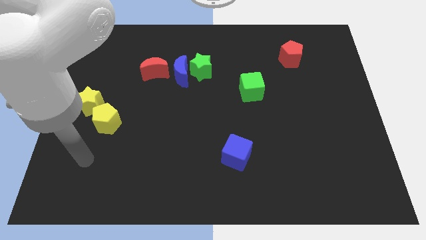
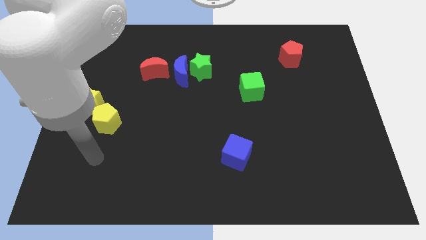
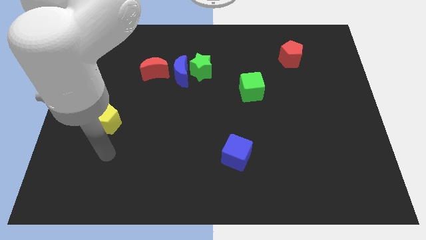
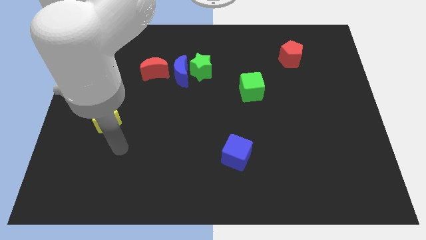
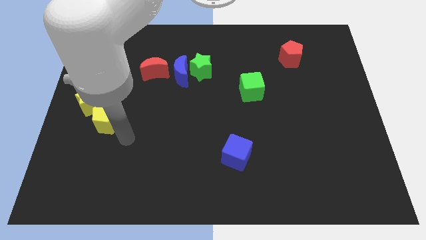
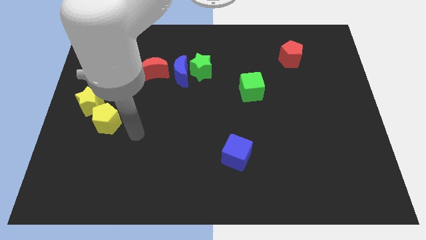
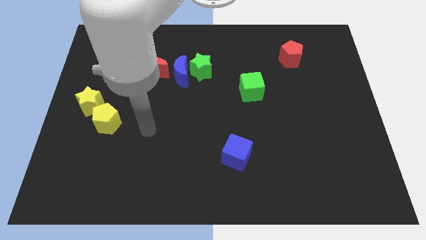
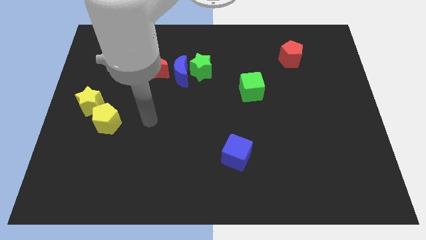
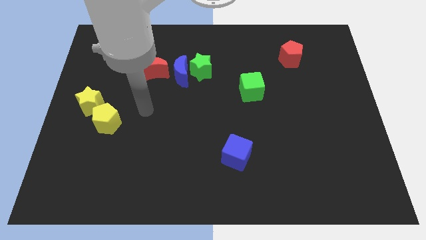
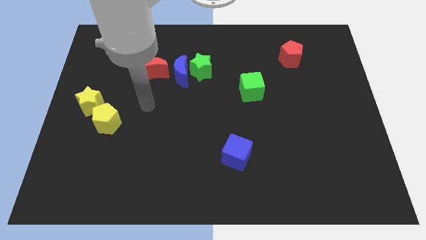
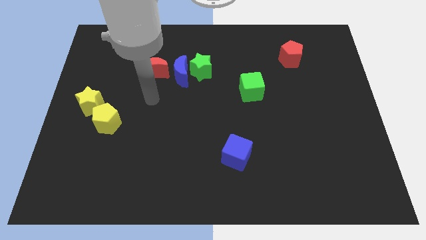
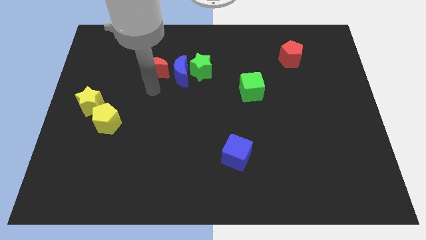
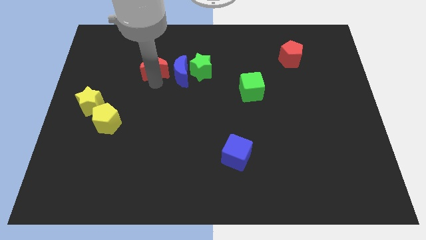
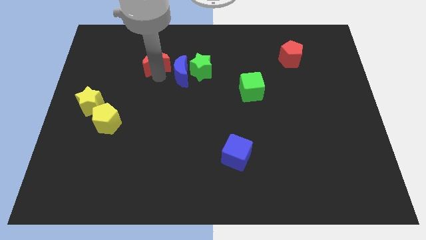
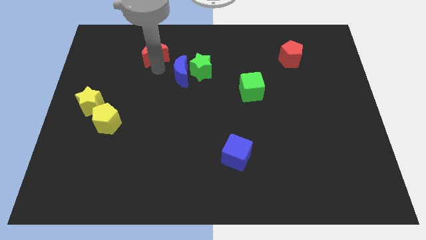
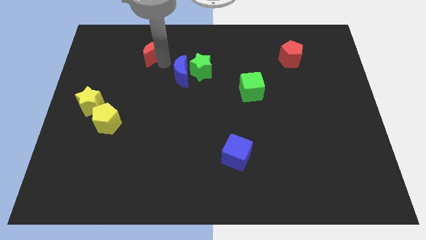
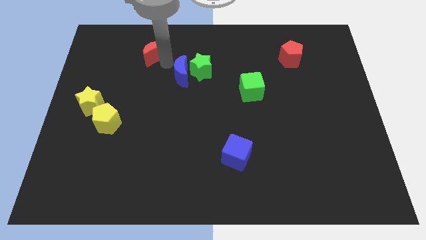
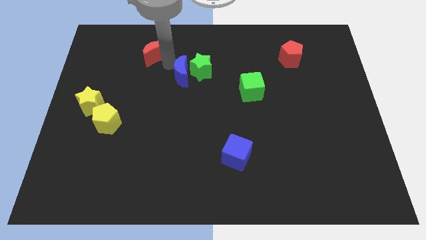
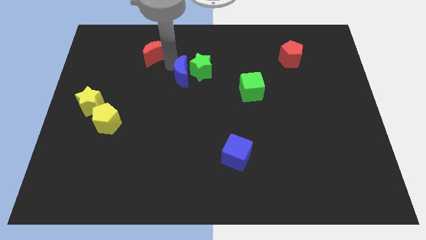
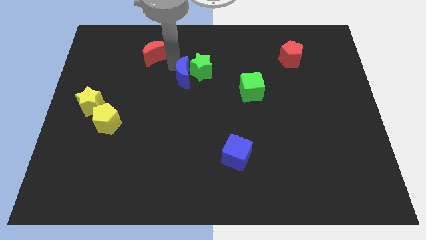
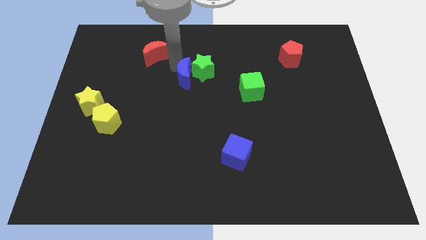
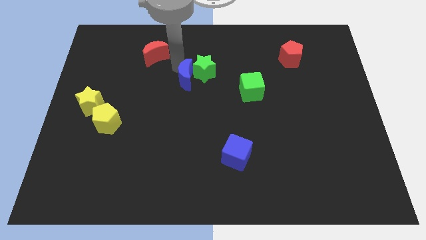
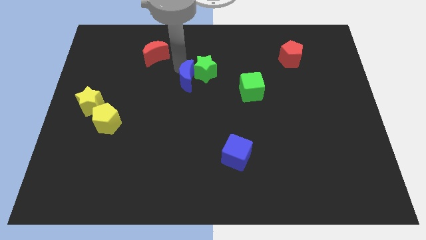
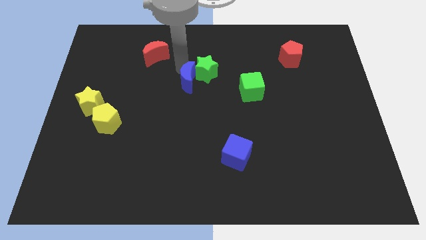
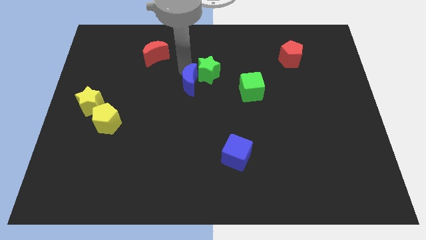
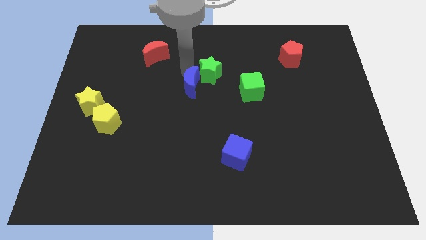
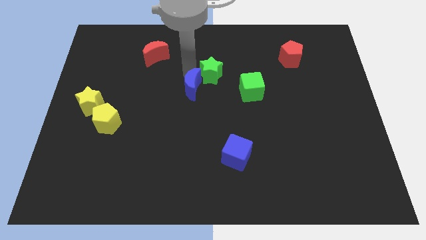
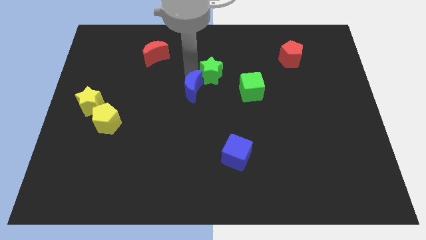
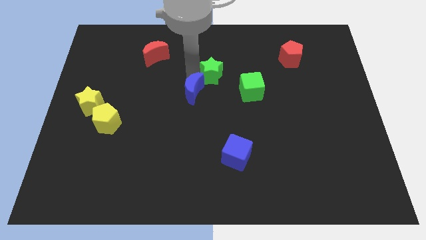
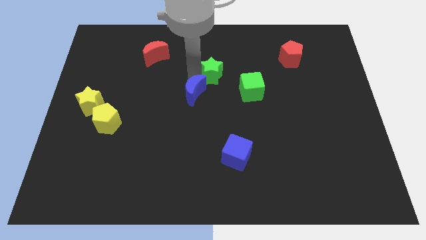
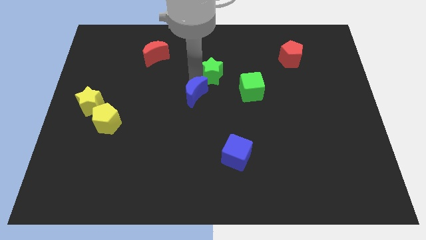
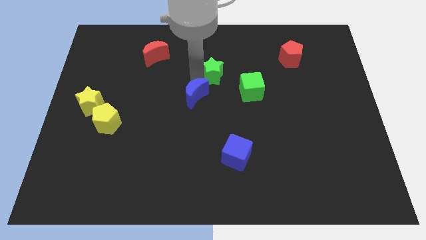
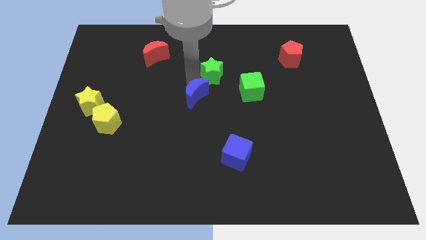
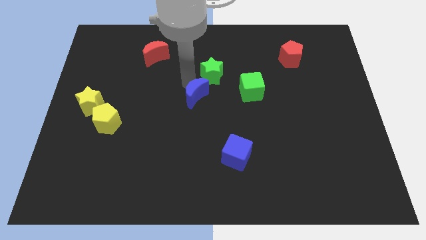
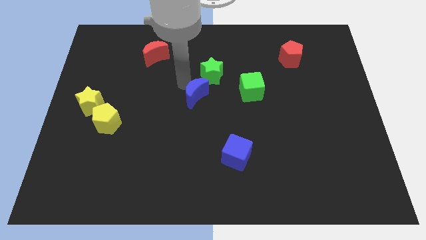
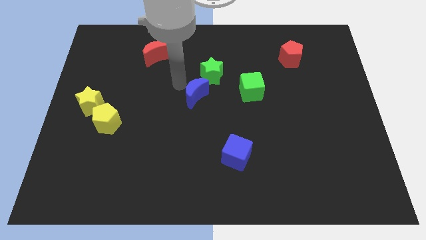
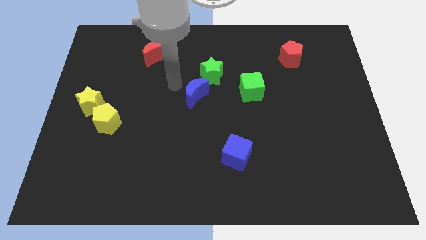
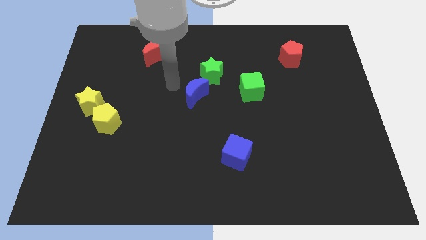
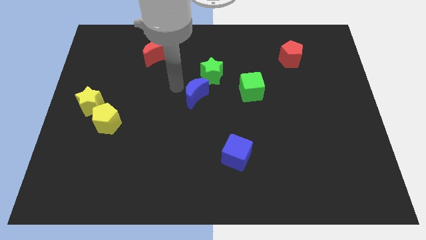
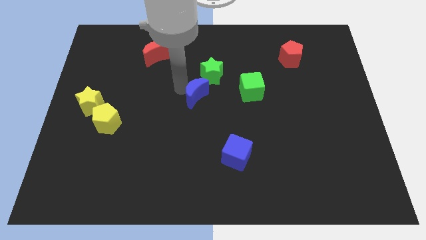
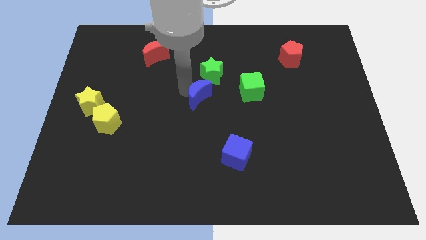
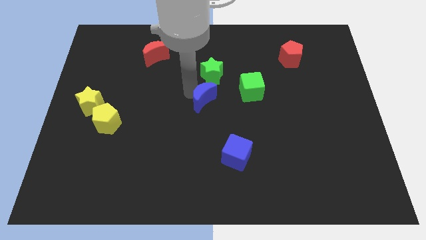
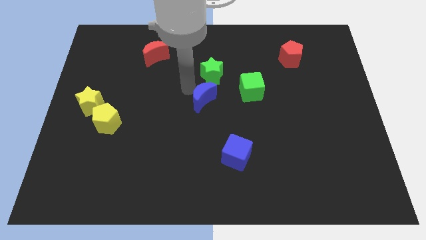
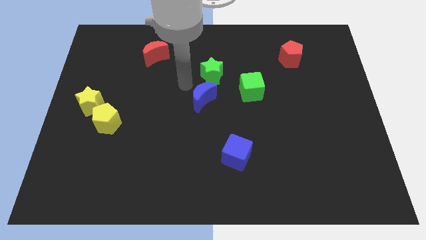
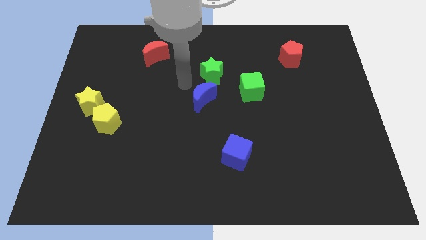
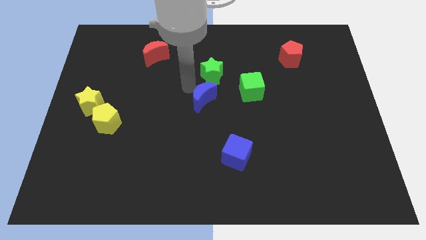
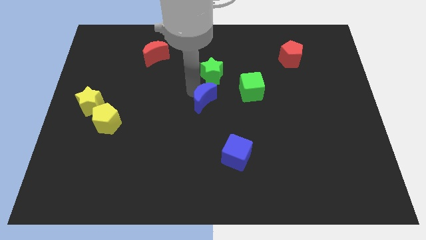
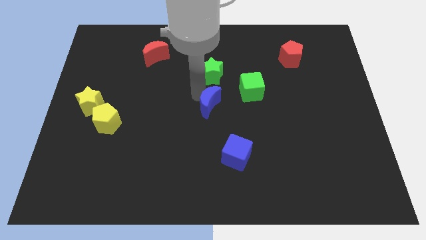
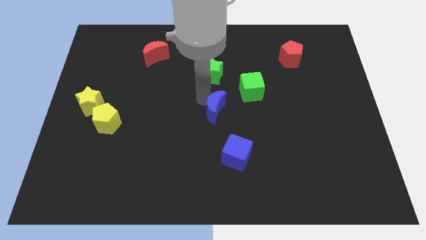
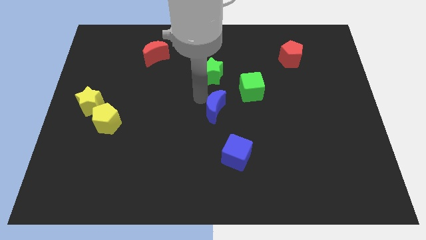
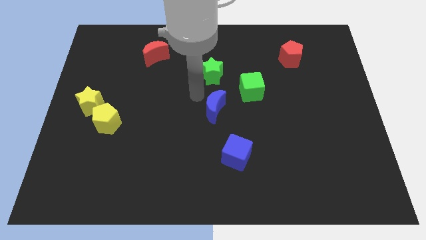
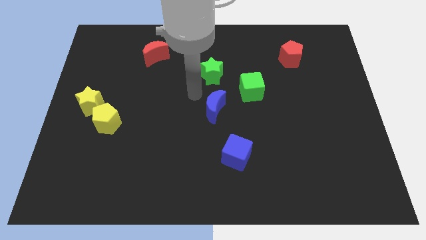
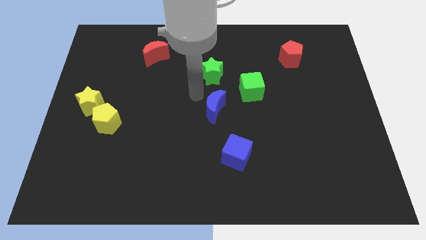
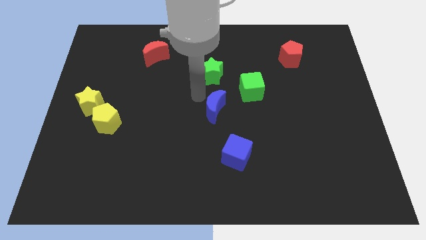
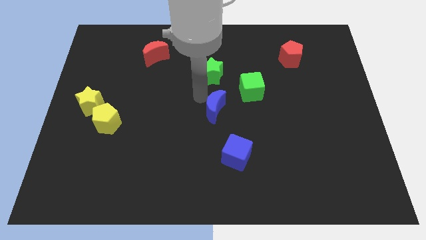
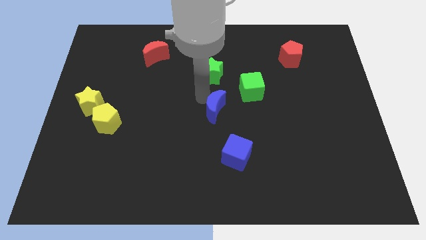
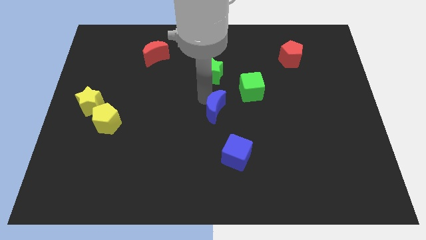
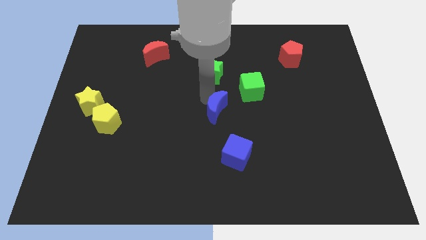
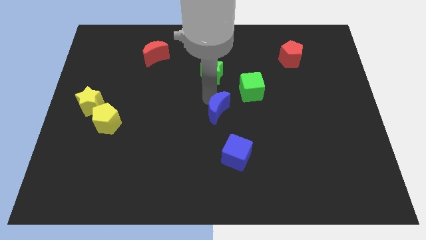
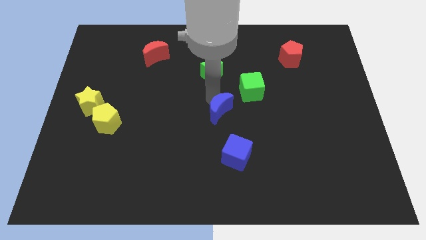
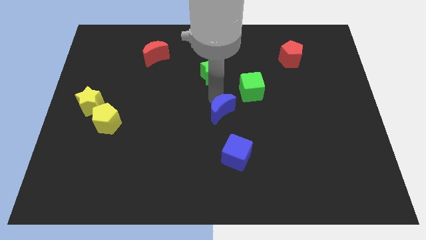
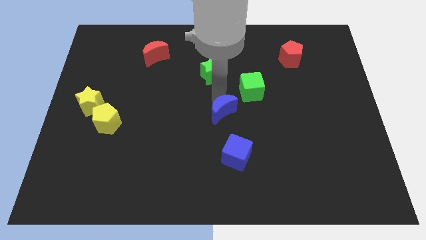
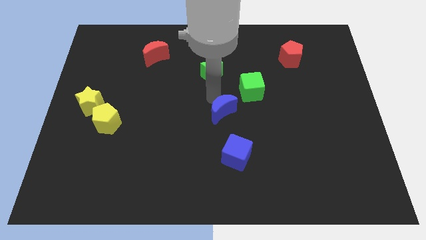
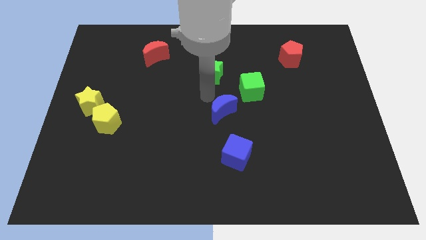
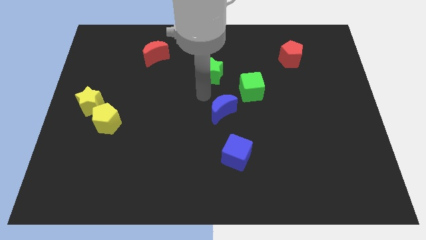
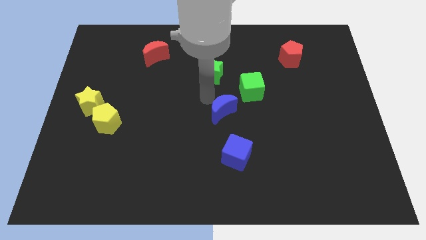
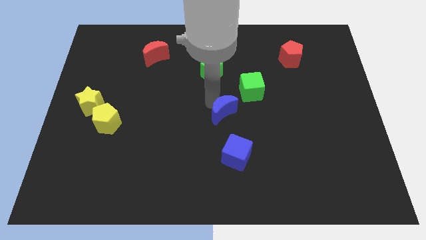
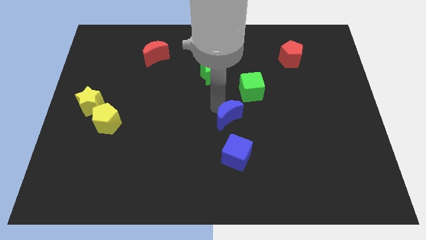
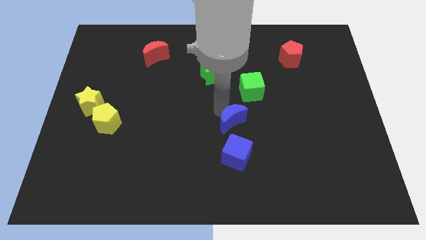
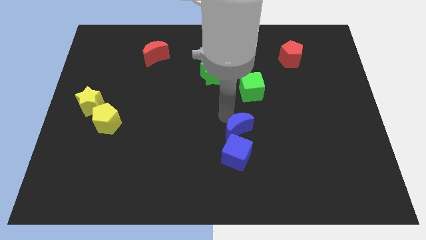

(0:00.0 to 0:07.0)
slide the blue moon down and then to the right

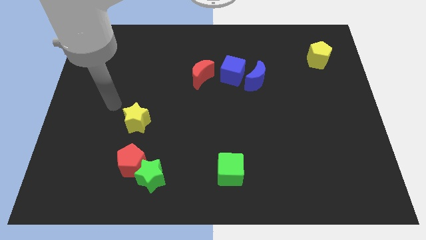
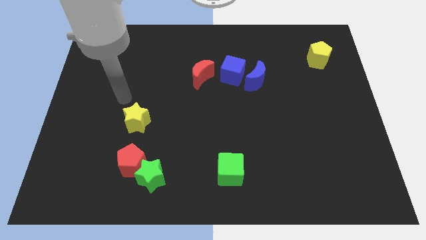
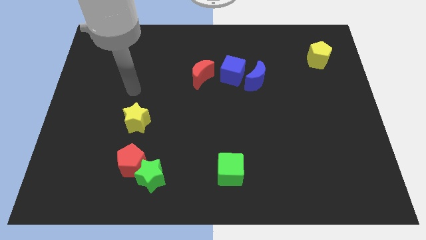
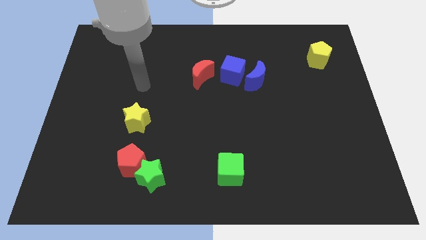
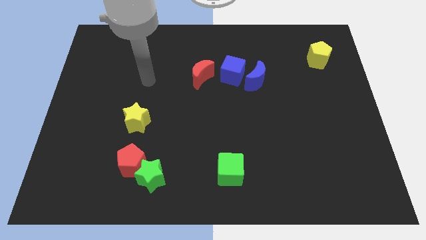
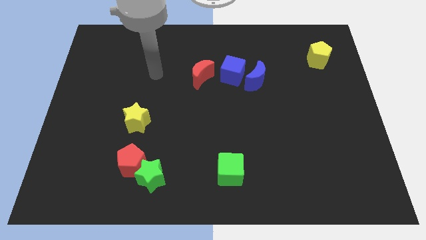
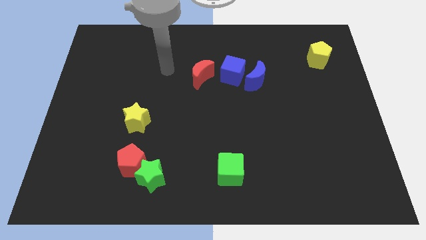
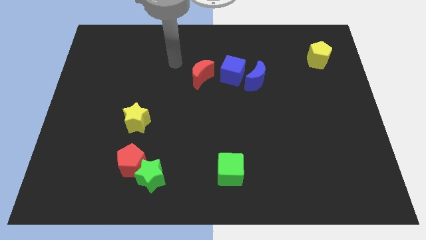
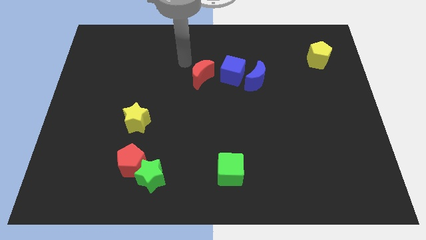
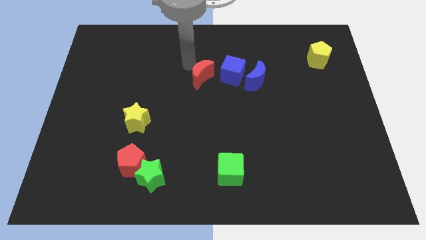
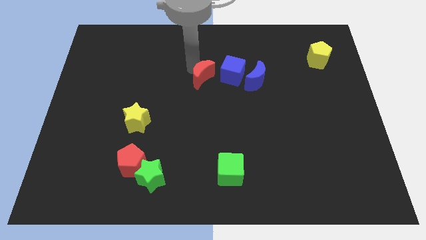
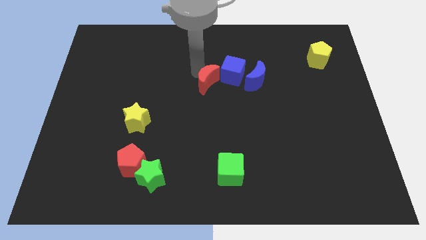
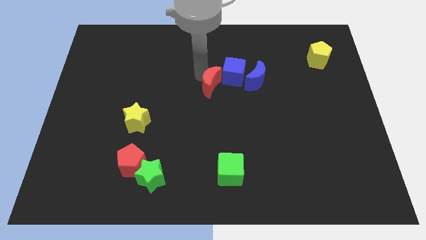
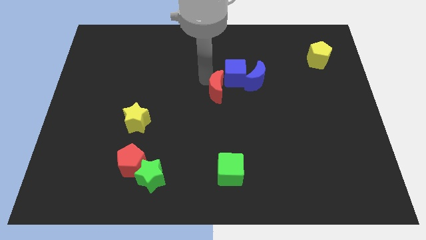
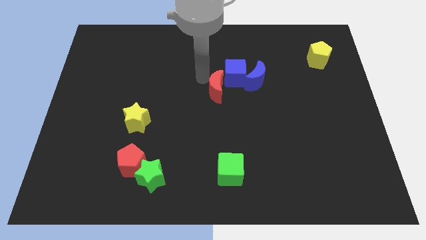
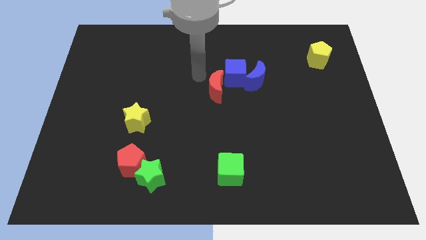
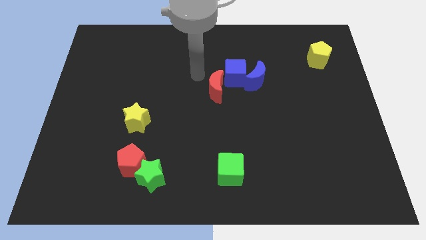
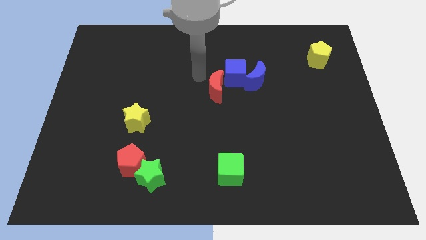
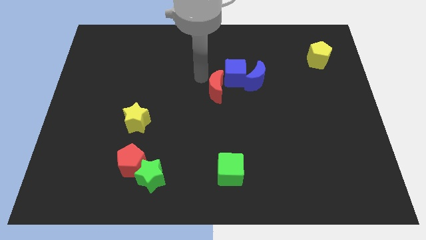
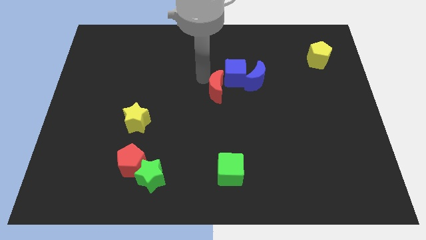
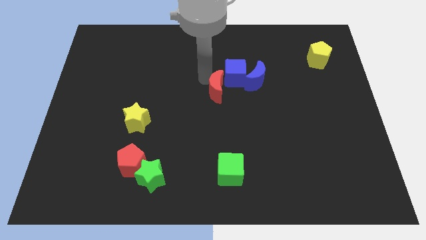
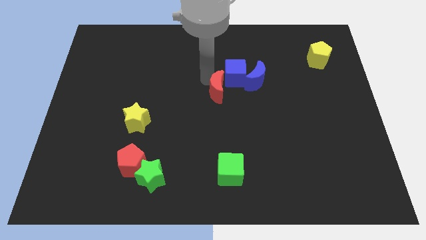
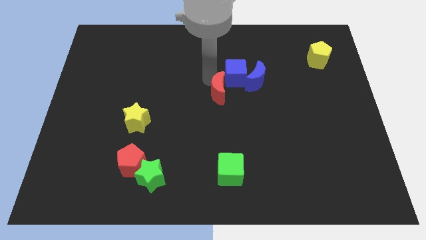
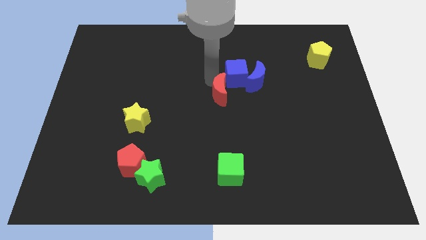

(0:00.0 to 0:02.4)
push the red moon downwards and to the right slightly
